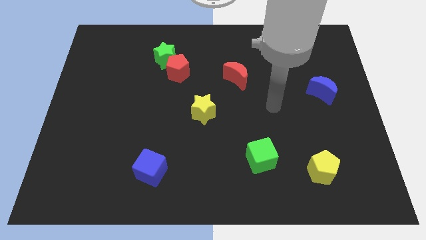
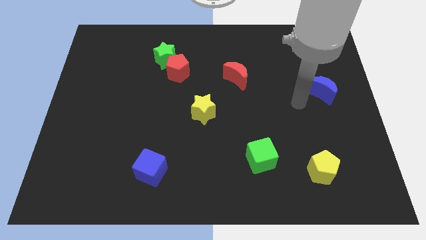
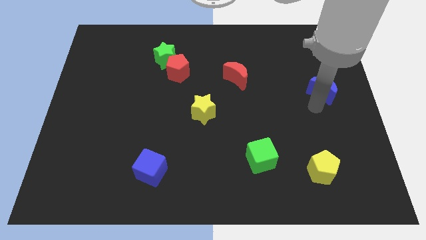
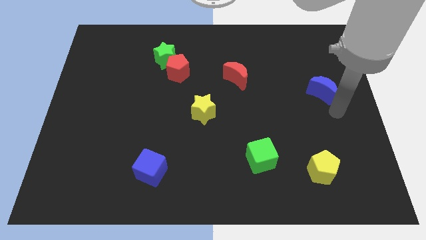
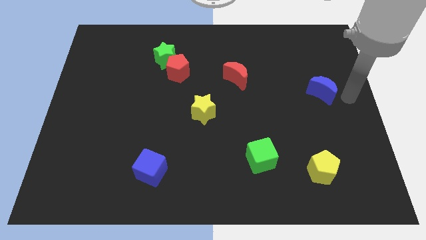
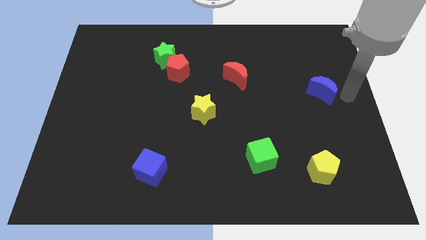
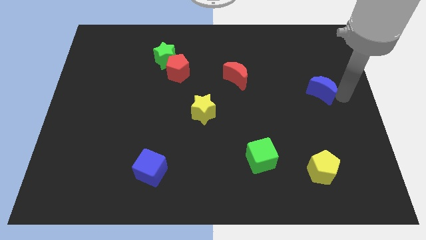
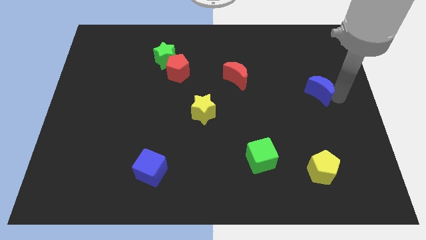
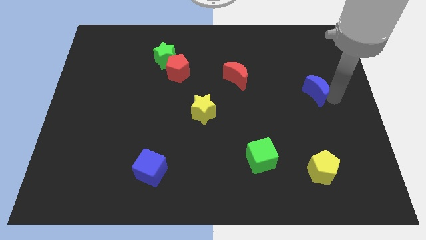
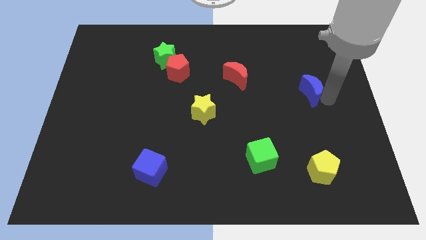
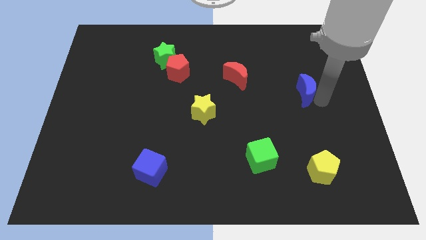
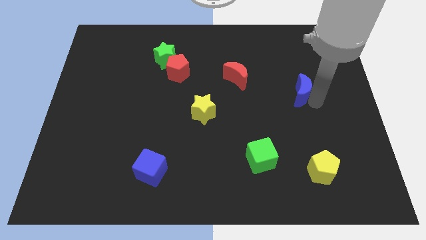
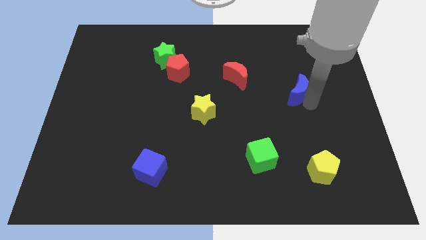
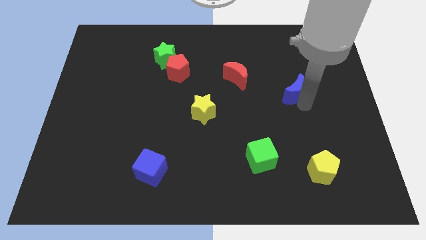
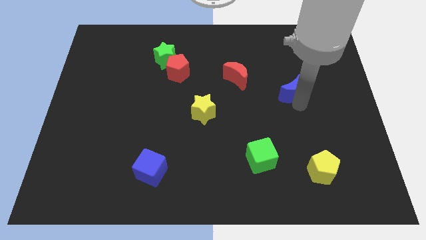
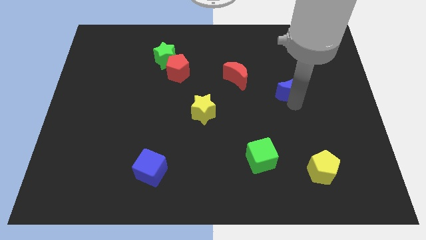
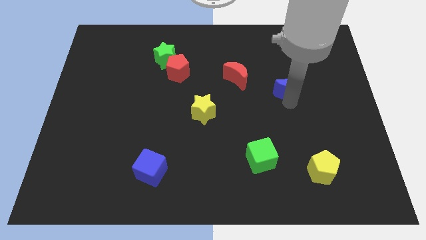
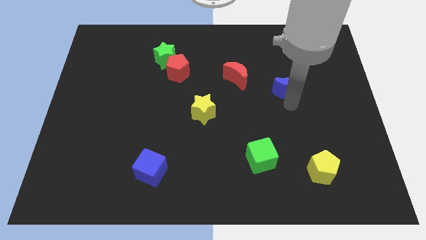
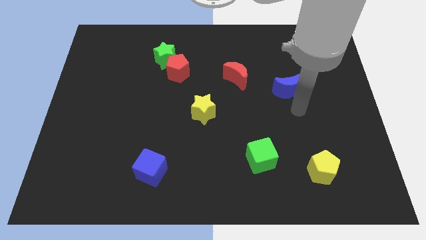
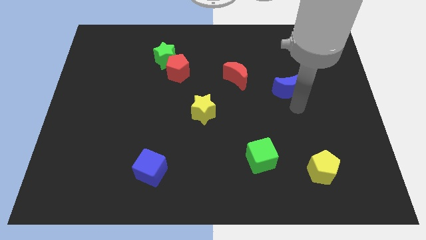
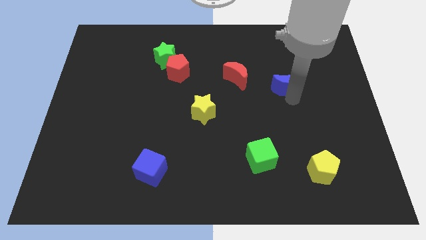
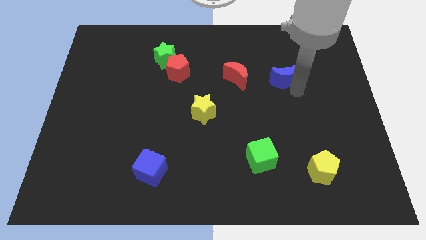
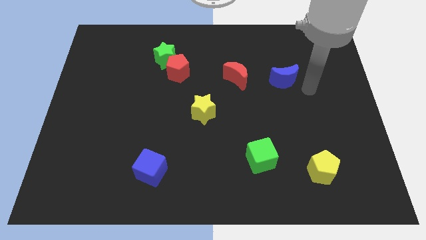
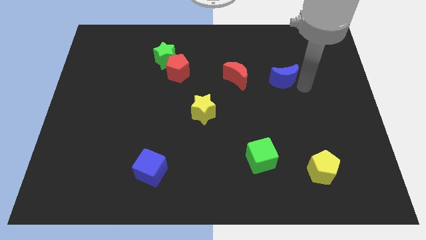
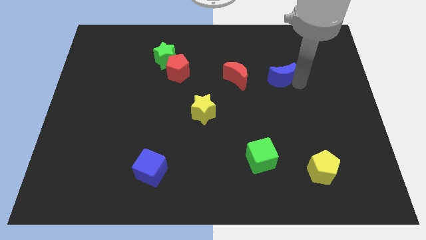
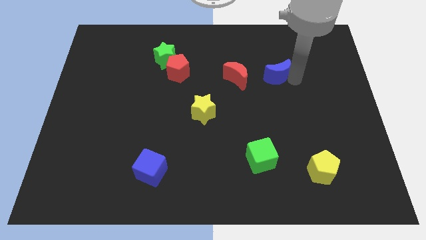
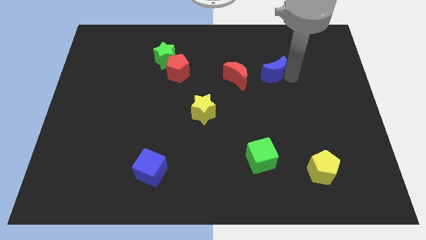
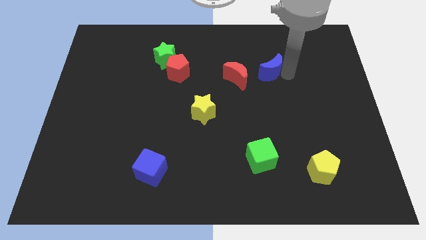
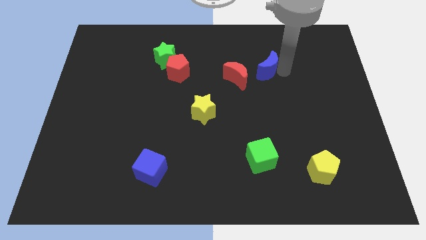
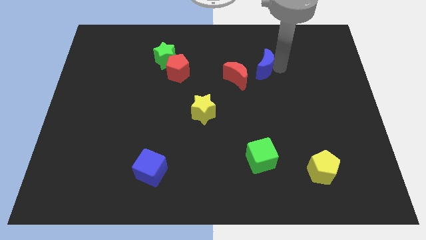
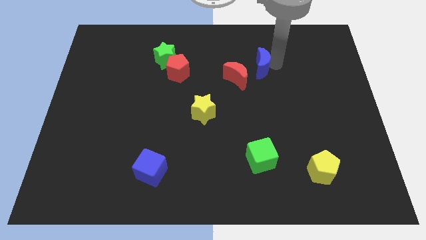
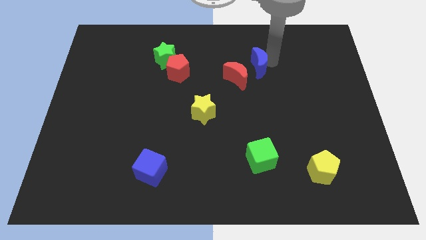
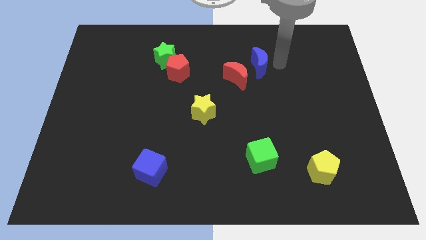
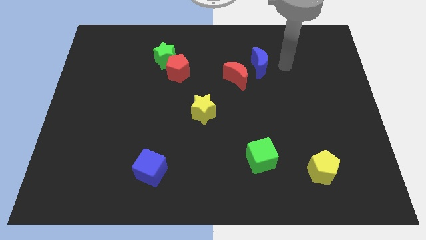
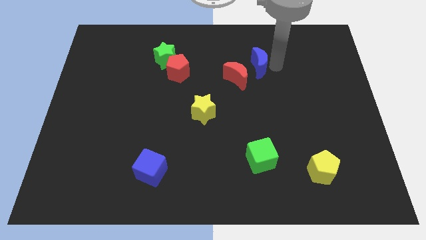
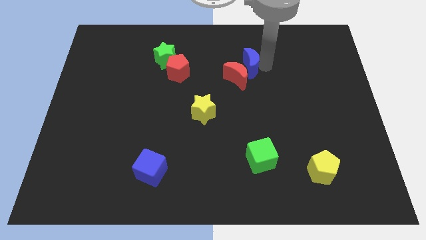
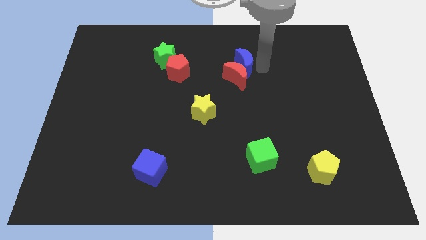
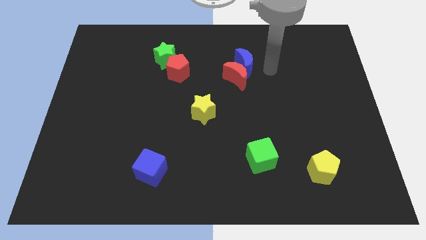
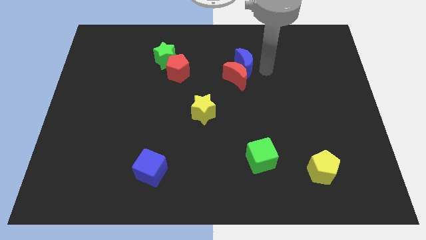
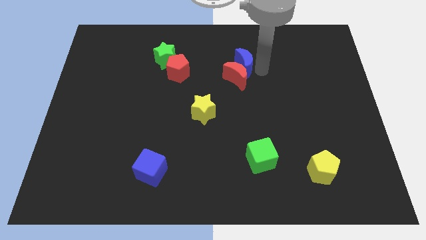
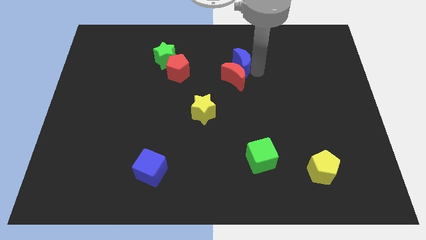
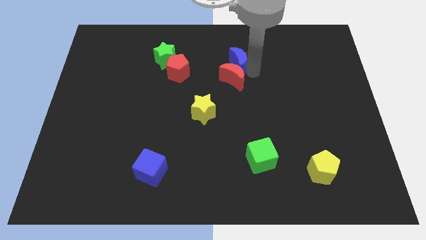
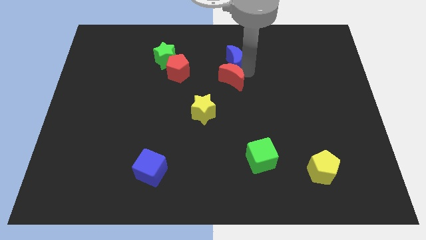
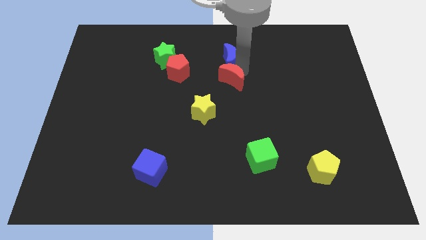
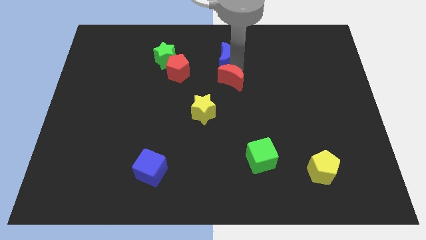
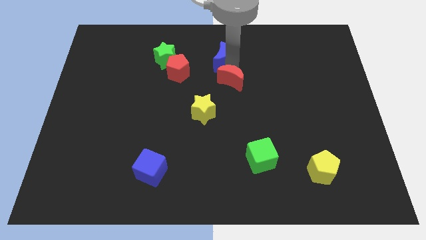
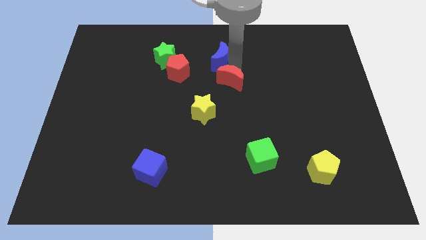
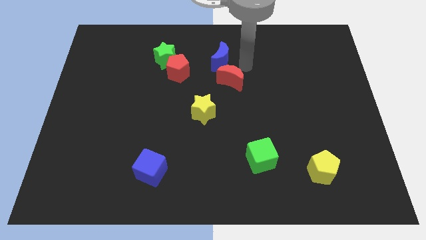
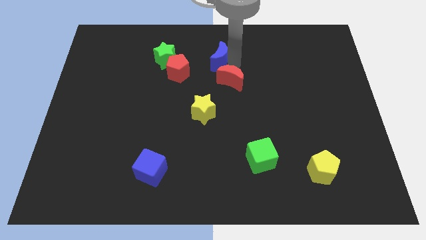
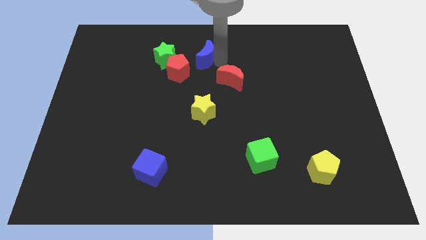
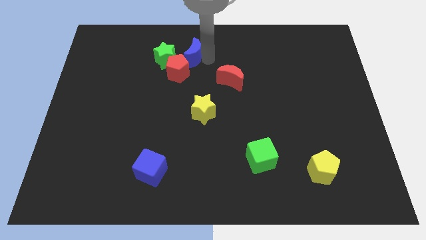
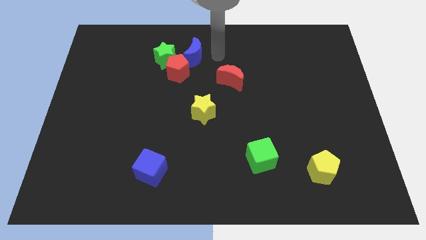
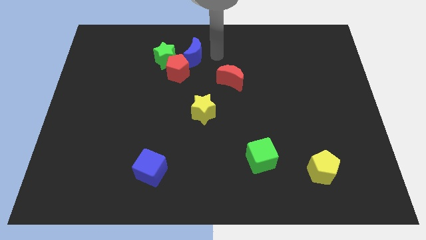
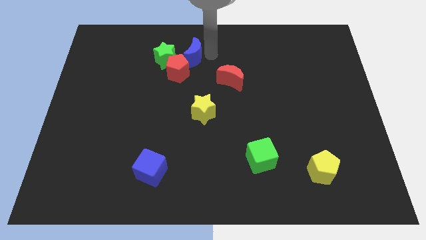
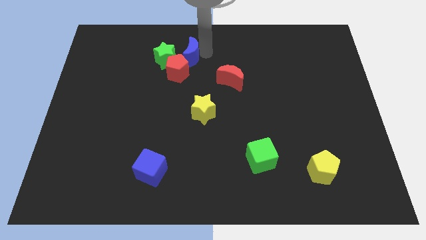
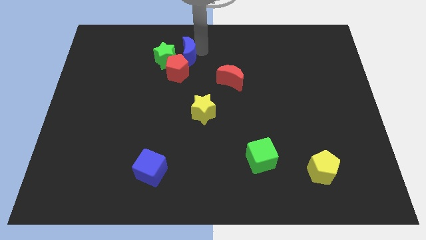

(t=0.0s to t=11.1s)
move the blue moon next to the green star

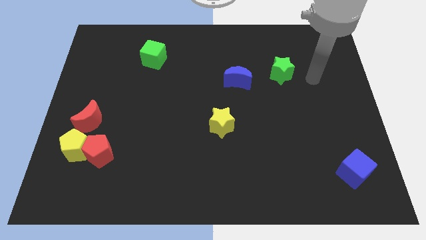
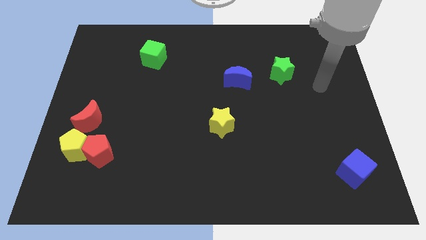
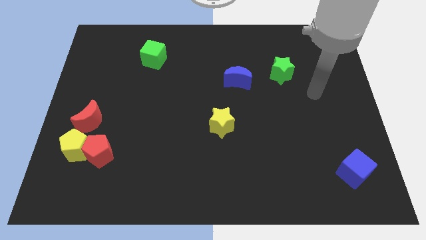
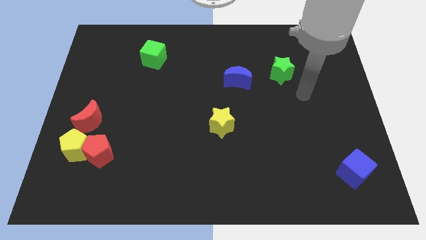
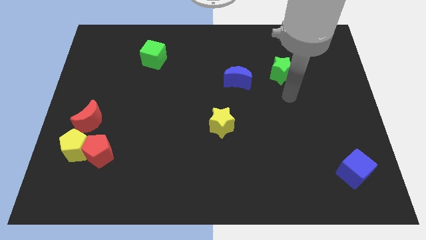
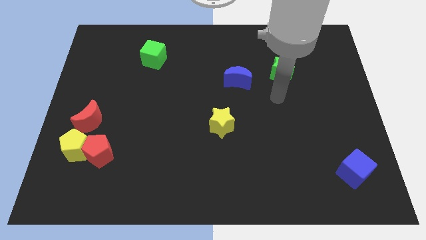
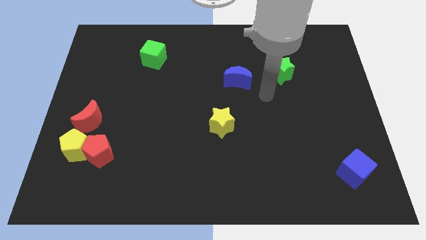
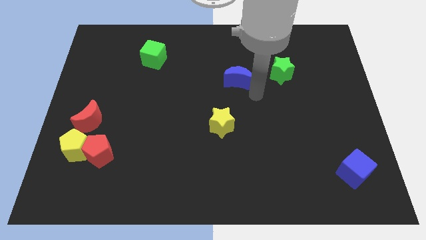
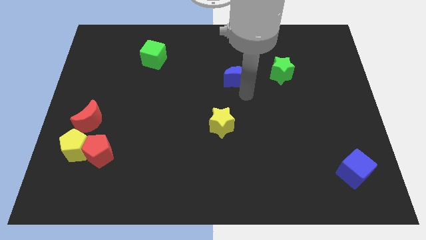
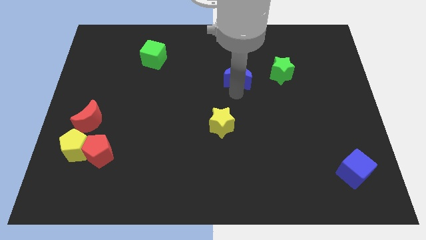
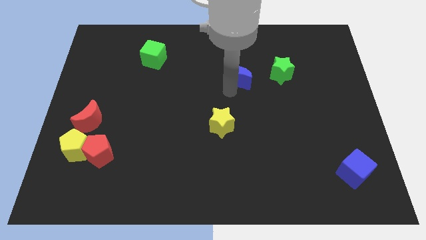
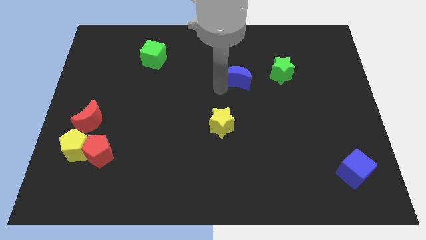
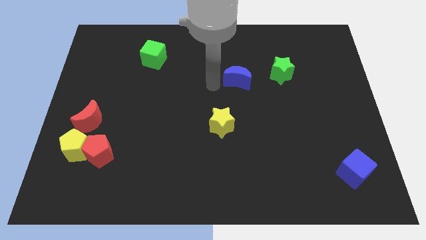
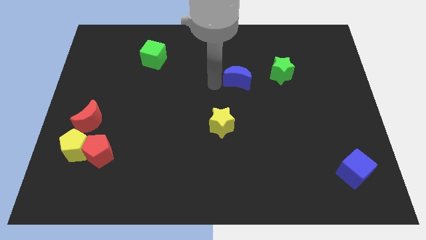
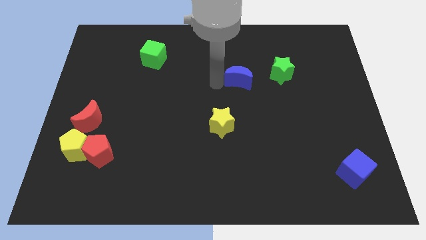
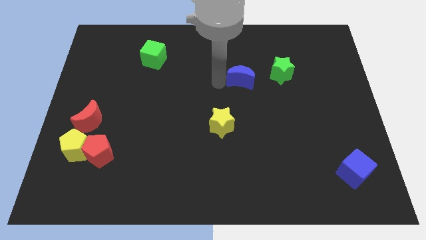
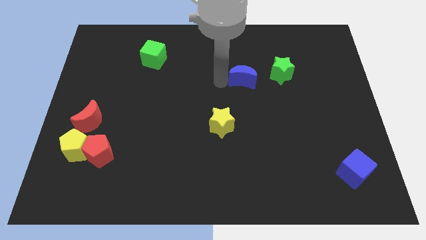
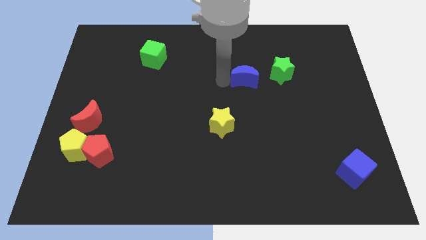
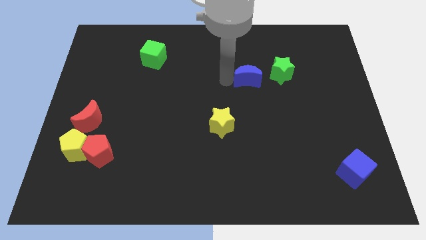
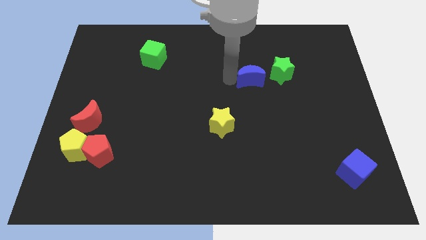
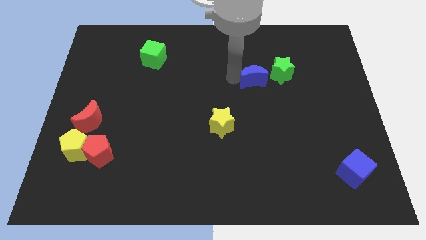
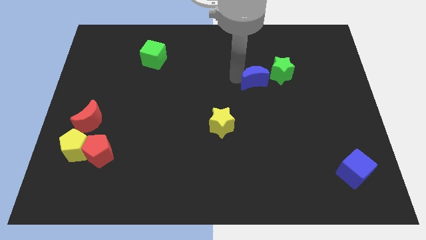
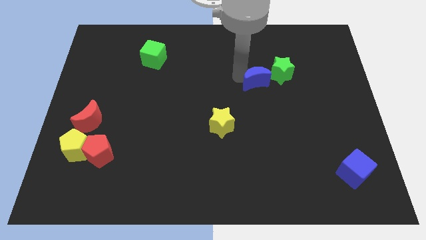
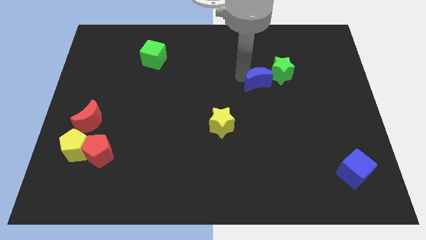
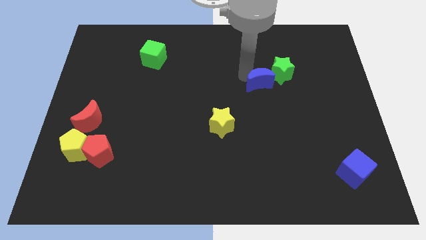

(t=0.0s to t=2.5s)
move the blue moon close to the green star
